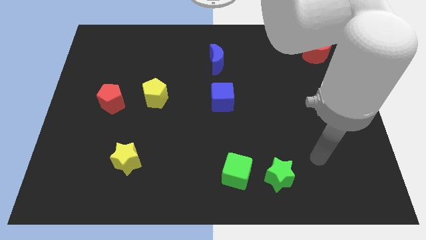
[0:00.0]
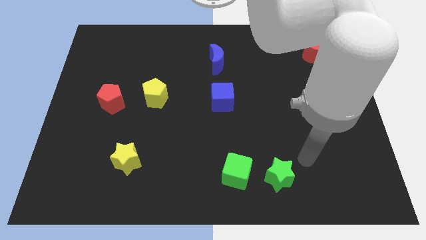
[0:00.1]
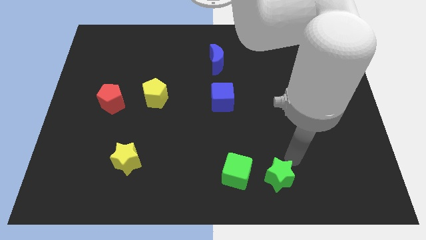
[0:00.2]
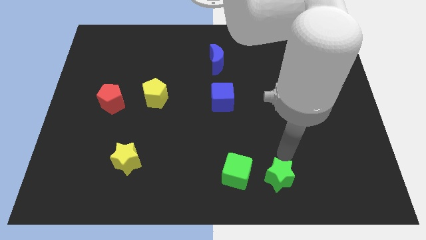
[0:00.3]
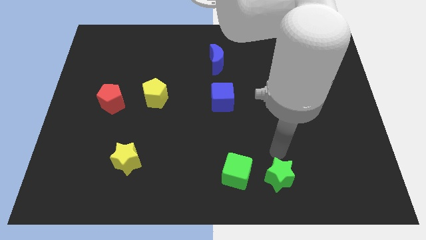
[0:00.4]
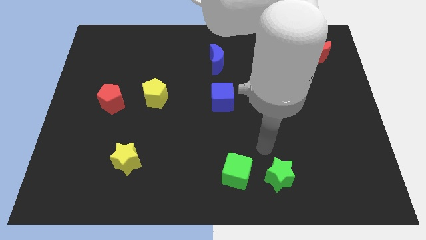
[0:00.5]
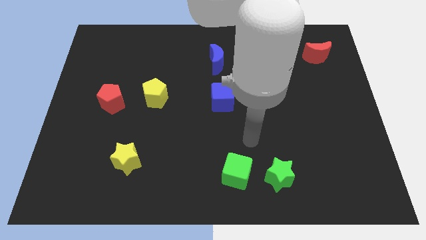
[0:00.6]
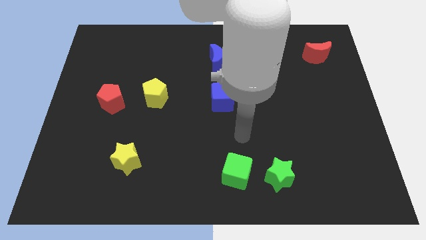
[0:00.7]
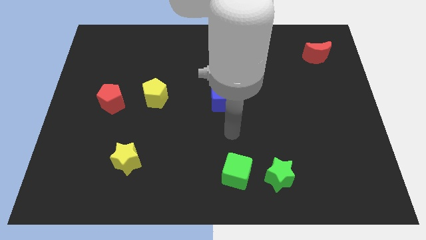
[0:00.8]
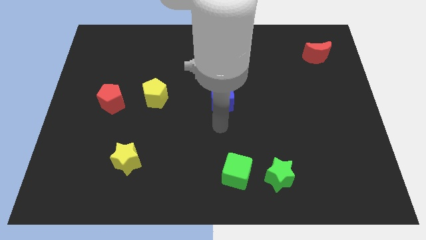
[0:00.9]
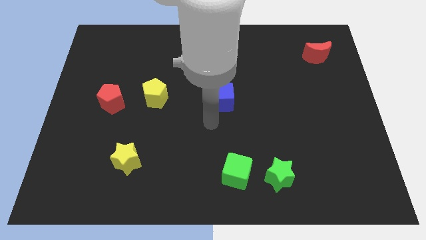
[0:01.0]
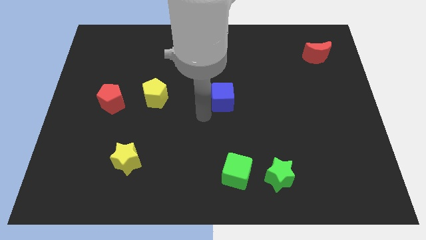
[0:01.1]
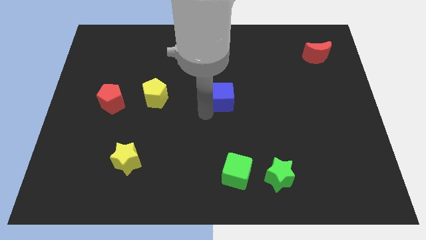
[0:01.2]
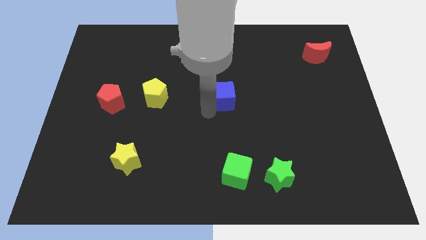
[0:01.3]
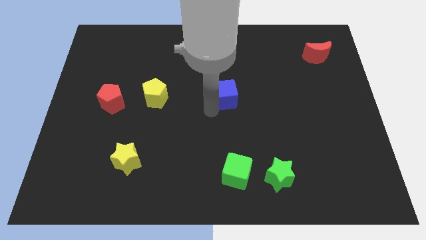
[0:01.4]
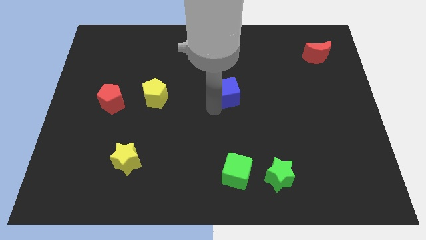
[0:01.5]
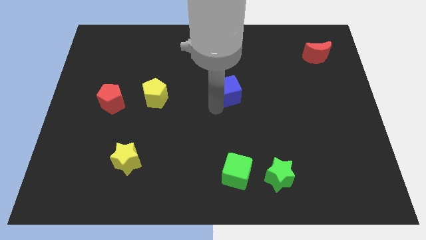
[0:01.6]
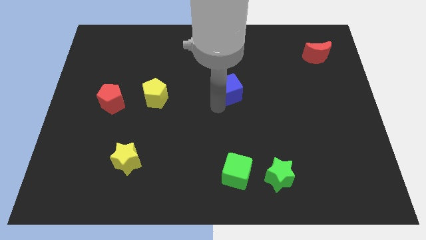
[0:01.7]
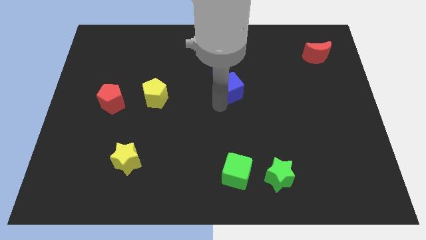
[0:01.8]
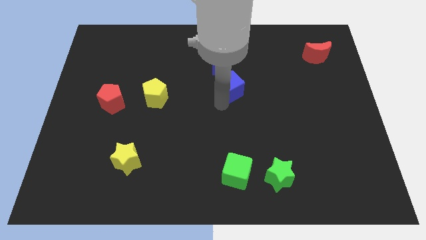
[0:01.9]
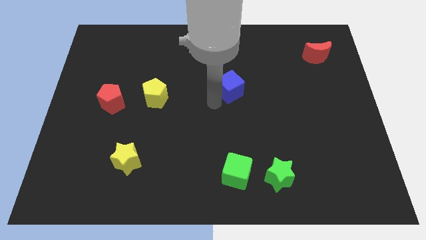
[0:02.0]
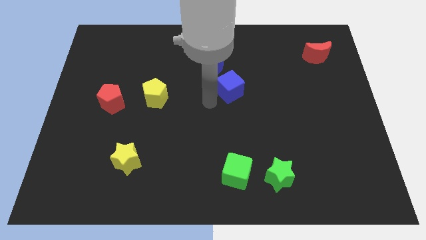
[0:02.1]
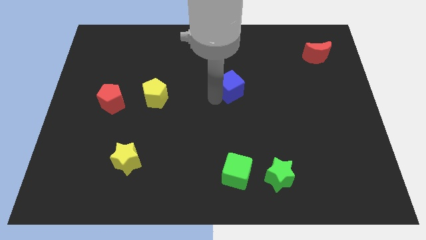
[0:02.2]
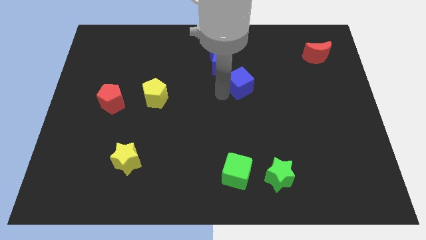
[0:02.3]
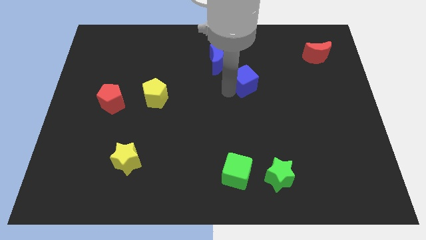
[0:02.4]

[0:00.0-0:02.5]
move the blue cube upwards and to the right a bit

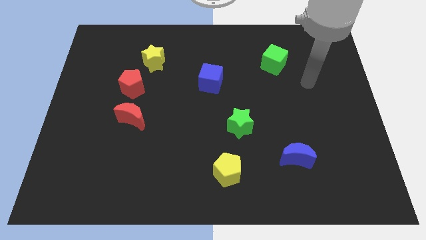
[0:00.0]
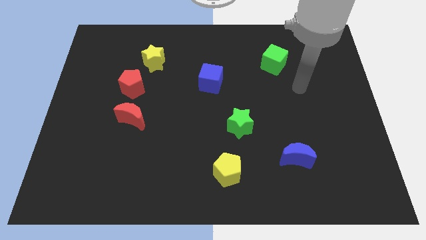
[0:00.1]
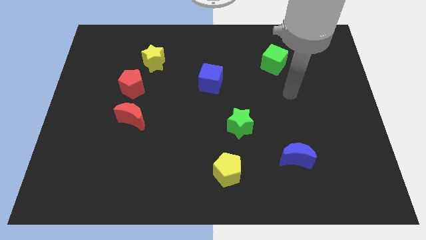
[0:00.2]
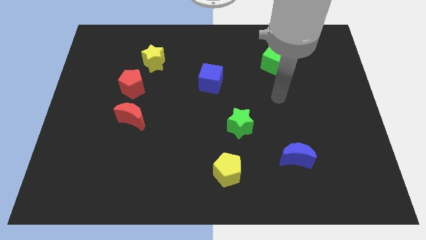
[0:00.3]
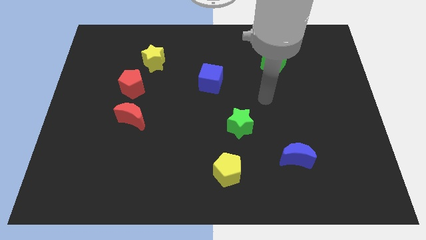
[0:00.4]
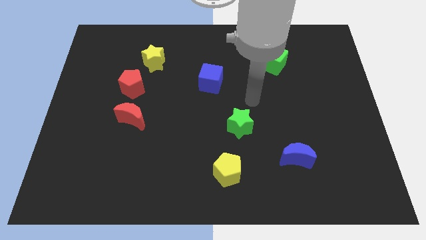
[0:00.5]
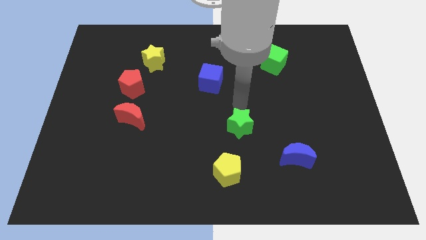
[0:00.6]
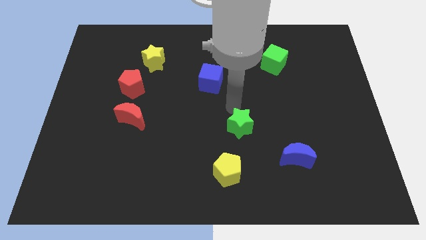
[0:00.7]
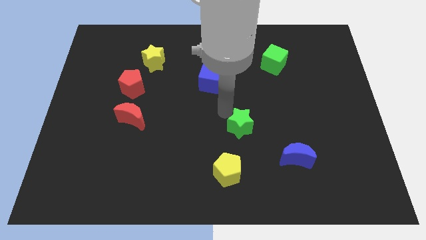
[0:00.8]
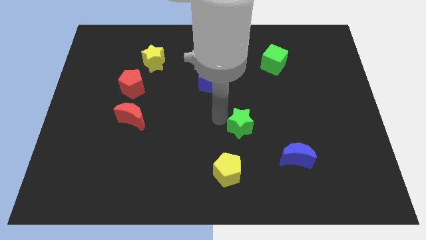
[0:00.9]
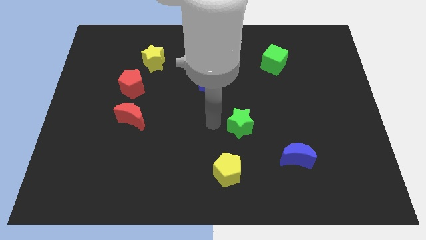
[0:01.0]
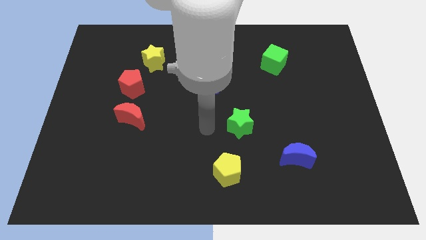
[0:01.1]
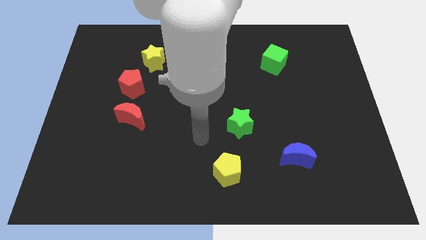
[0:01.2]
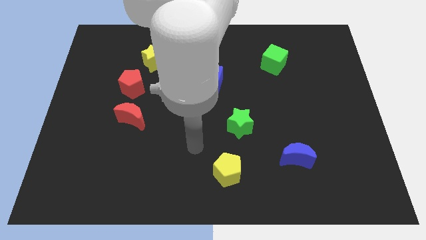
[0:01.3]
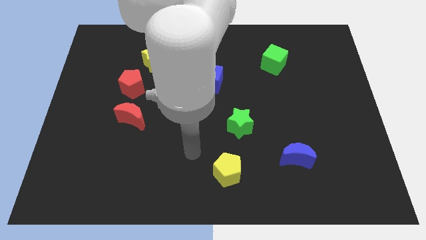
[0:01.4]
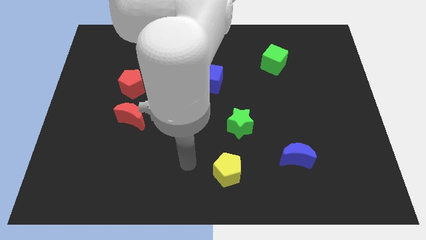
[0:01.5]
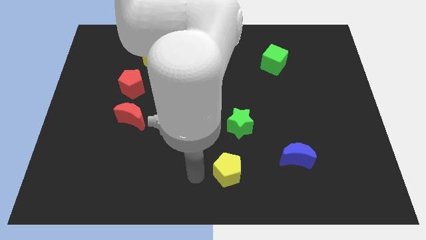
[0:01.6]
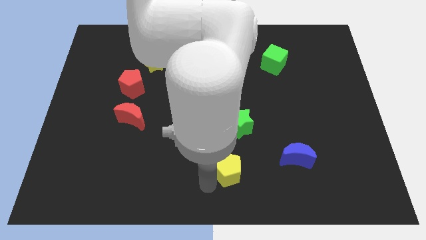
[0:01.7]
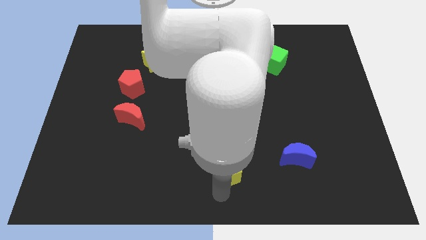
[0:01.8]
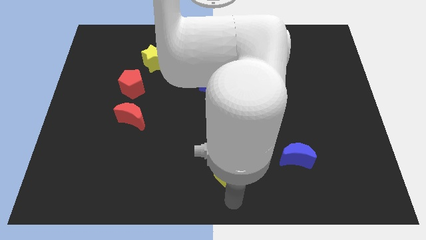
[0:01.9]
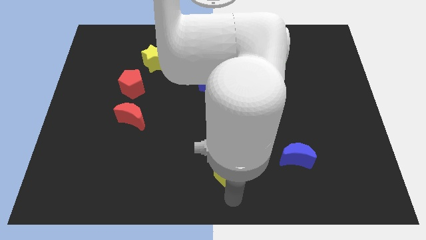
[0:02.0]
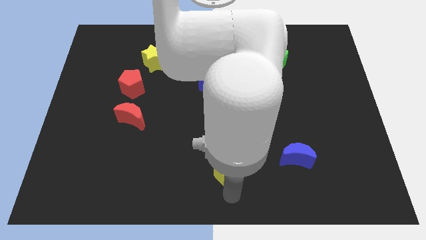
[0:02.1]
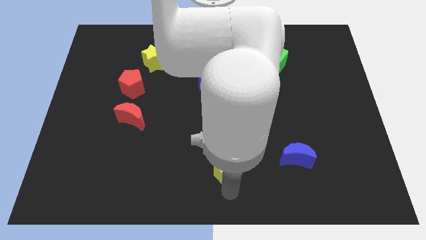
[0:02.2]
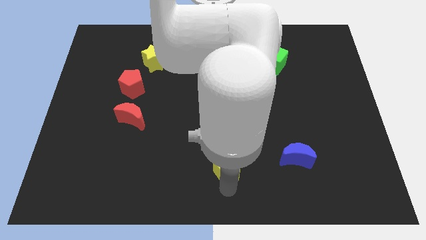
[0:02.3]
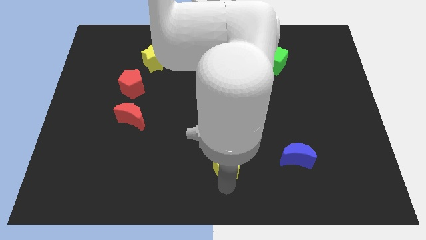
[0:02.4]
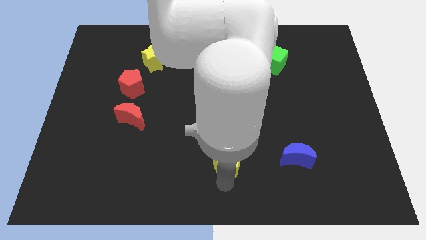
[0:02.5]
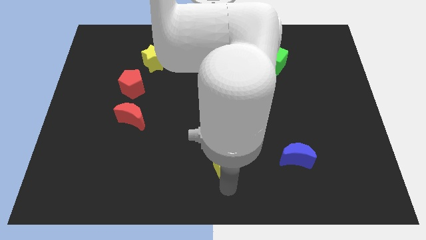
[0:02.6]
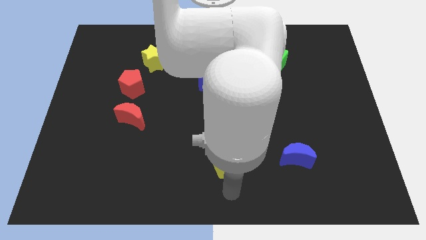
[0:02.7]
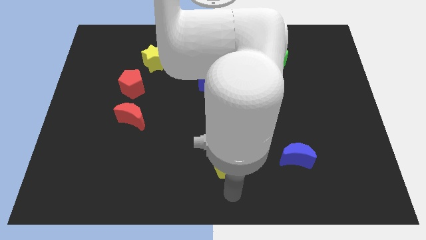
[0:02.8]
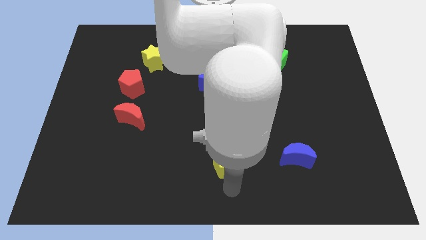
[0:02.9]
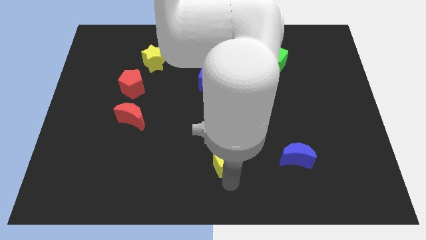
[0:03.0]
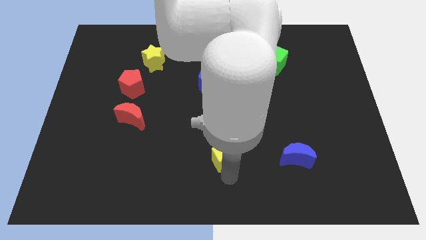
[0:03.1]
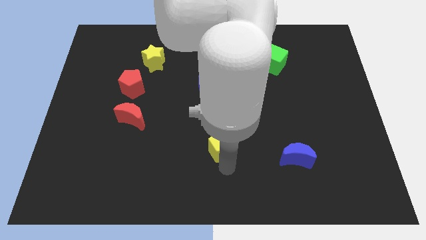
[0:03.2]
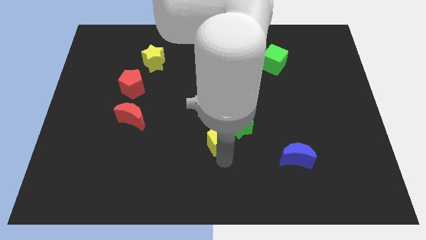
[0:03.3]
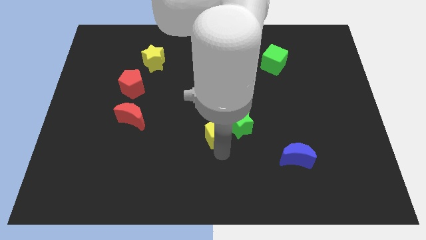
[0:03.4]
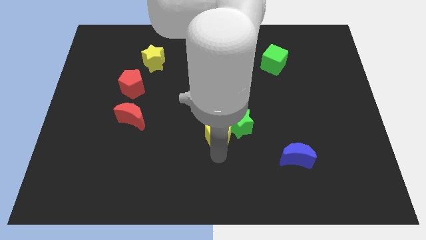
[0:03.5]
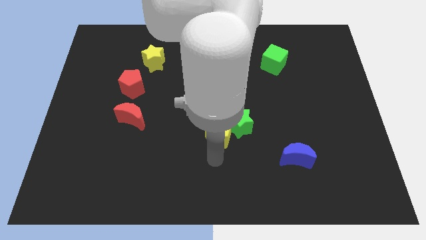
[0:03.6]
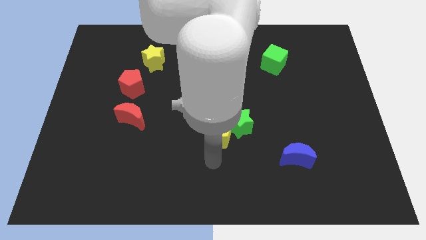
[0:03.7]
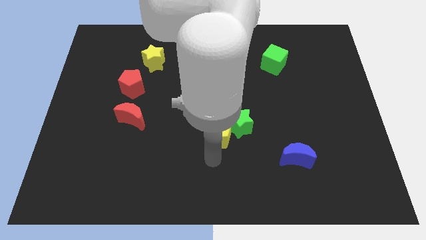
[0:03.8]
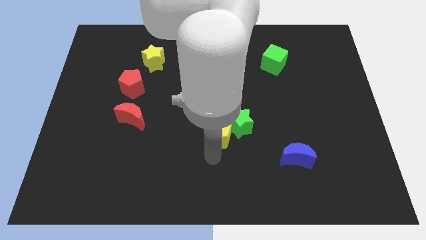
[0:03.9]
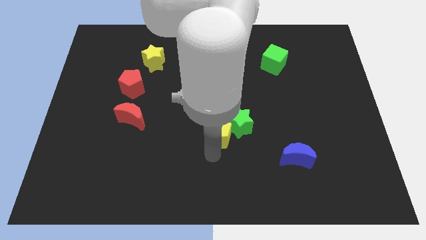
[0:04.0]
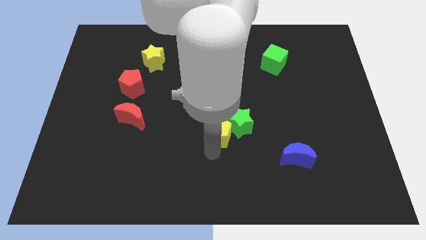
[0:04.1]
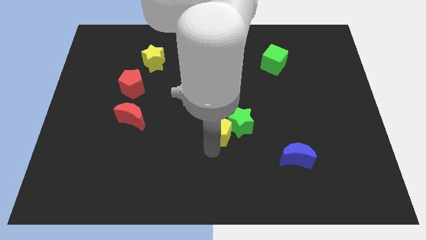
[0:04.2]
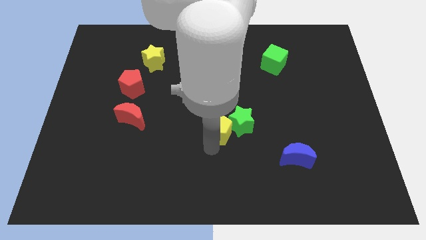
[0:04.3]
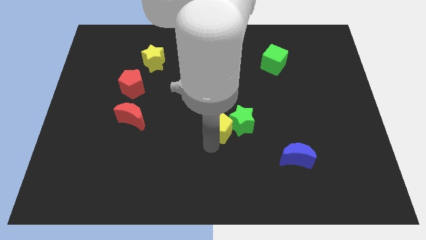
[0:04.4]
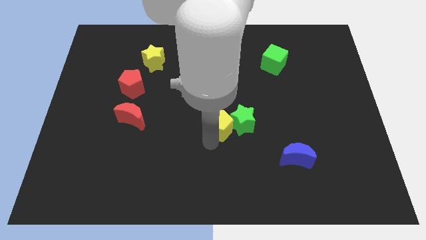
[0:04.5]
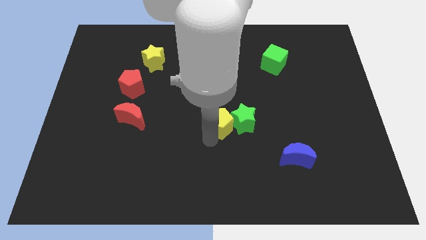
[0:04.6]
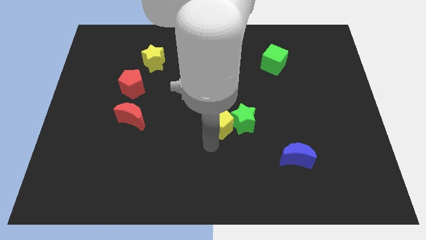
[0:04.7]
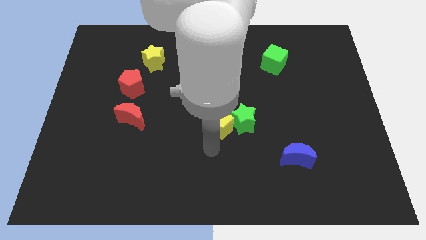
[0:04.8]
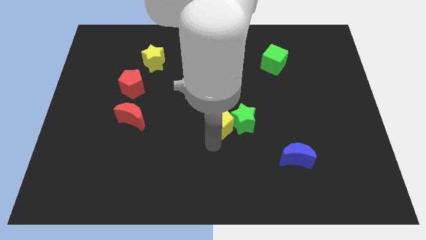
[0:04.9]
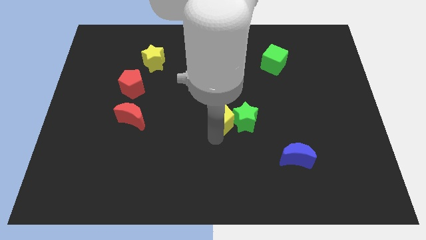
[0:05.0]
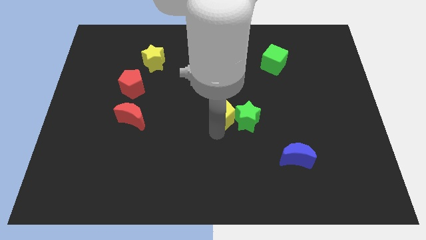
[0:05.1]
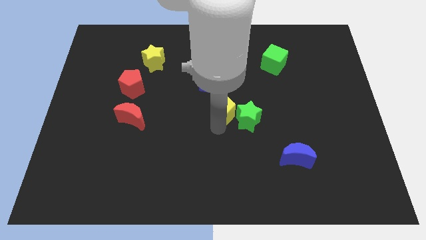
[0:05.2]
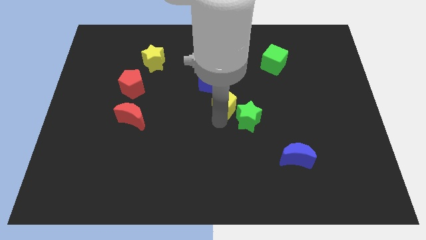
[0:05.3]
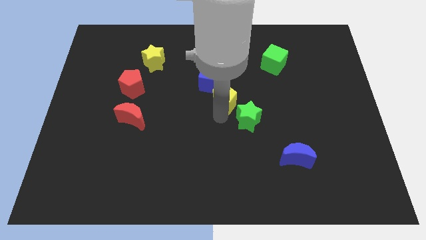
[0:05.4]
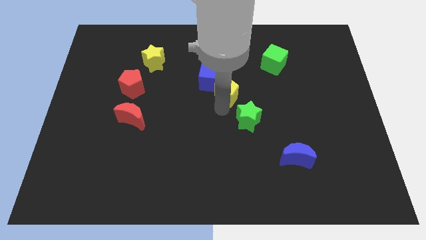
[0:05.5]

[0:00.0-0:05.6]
push the yellow pentagon upwards

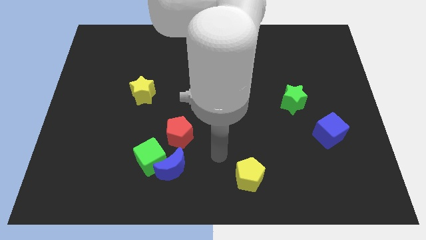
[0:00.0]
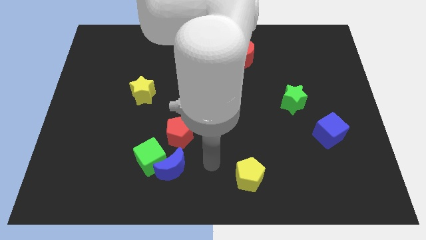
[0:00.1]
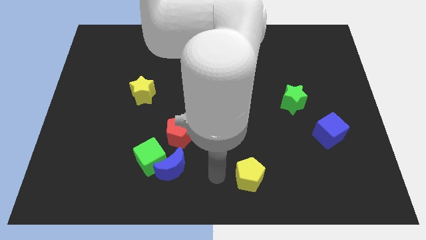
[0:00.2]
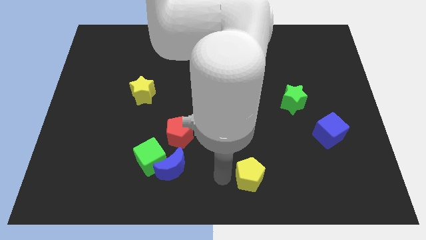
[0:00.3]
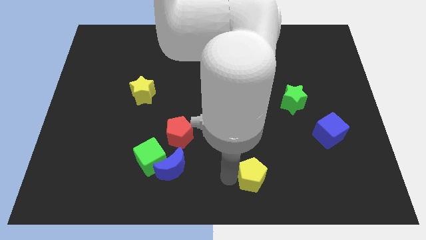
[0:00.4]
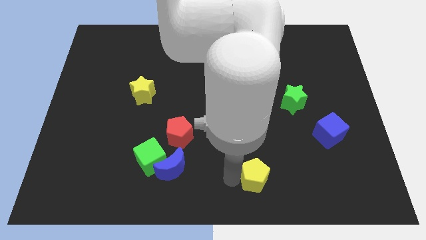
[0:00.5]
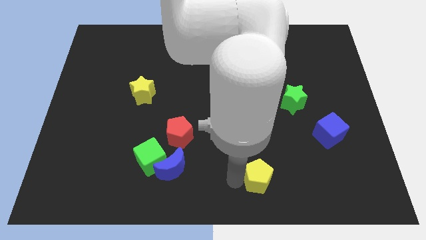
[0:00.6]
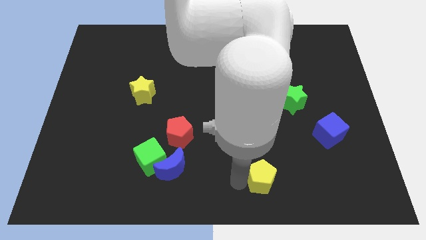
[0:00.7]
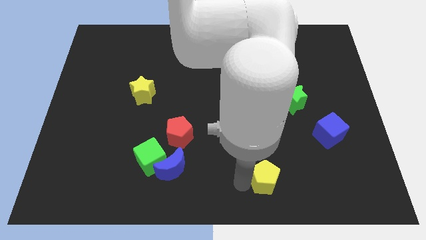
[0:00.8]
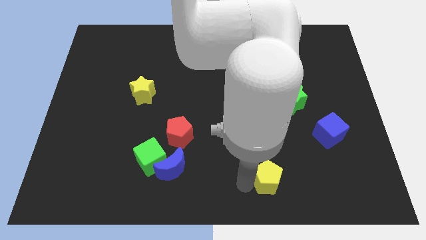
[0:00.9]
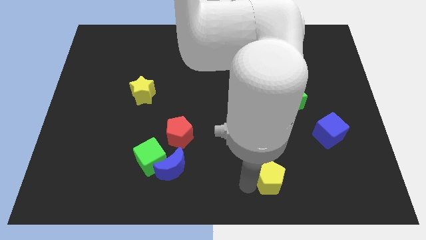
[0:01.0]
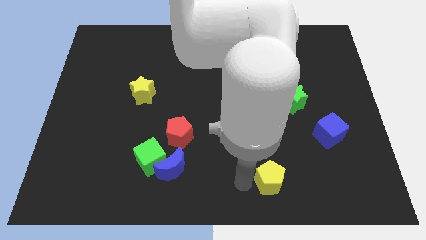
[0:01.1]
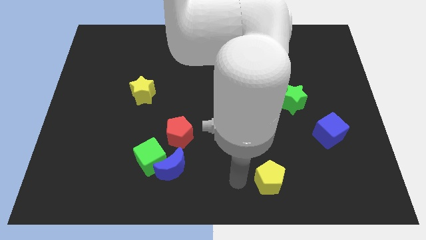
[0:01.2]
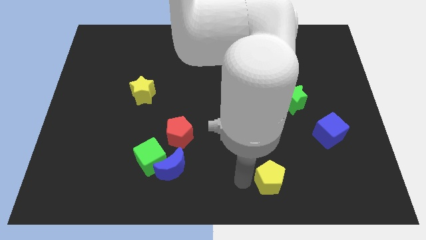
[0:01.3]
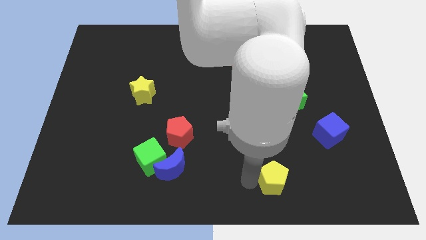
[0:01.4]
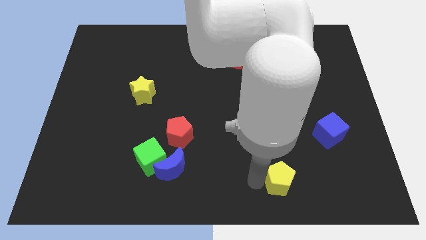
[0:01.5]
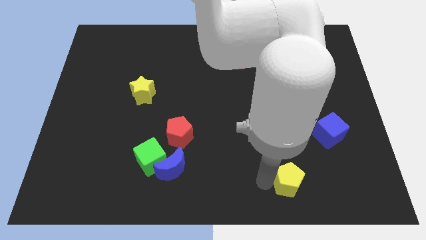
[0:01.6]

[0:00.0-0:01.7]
move the yellow pentagon slightly to the right
